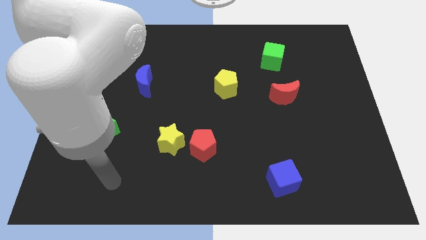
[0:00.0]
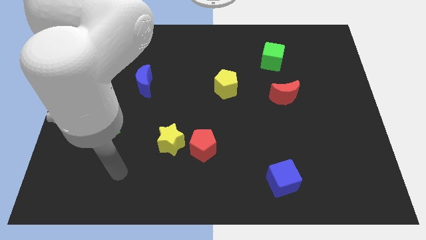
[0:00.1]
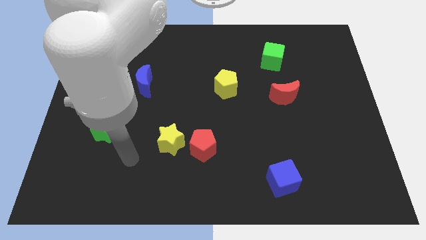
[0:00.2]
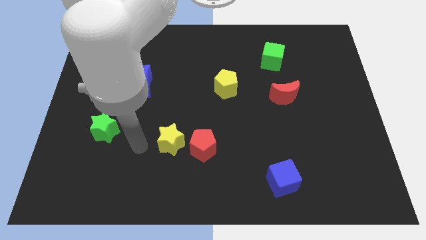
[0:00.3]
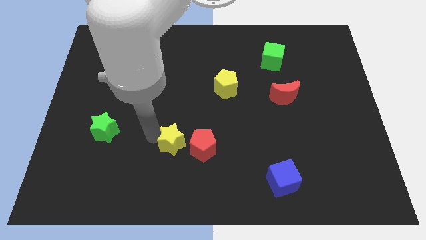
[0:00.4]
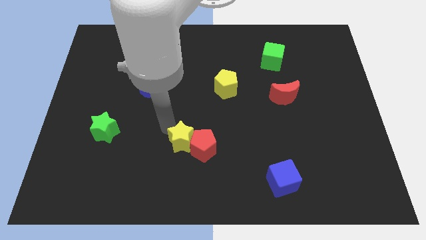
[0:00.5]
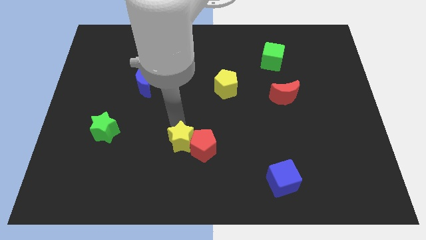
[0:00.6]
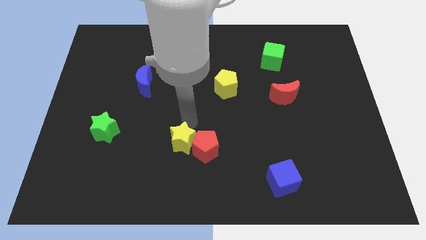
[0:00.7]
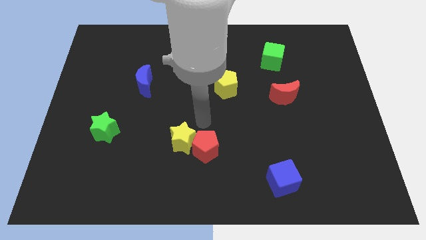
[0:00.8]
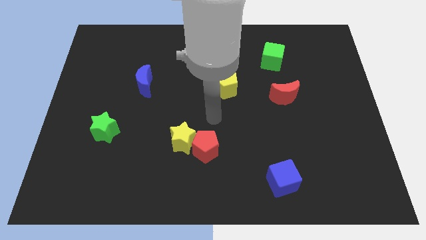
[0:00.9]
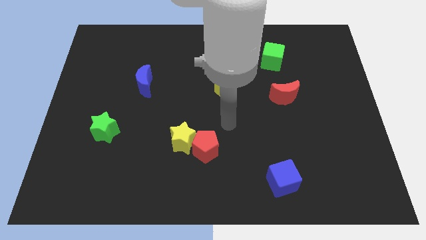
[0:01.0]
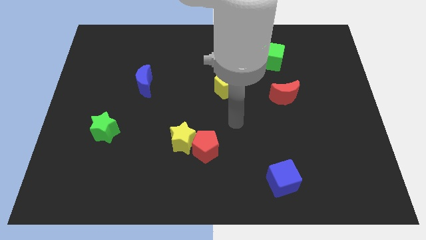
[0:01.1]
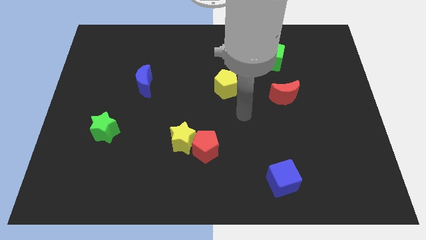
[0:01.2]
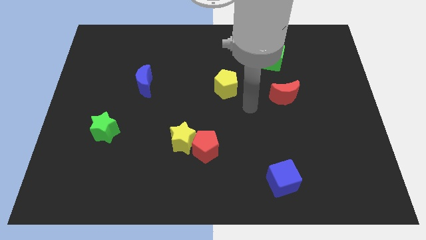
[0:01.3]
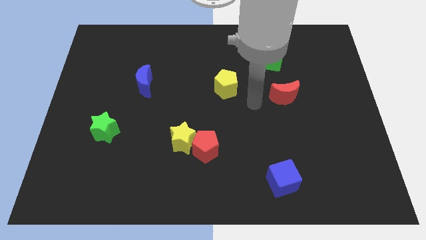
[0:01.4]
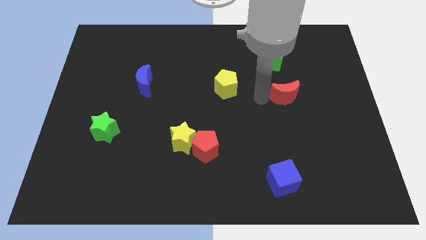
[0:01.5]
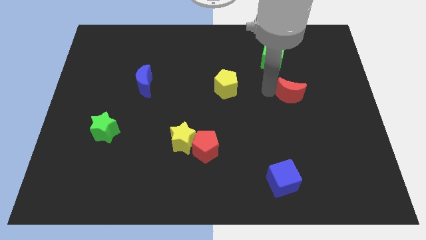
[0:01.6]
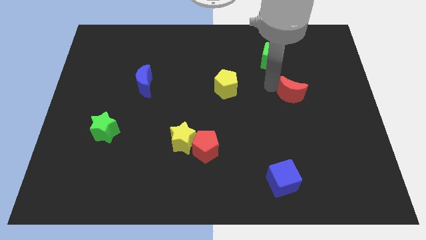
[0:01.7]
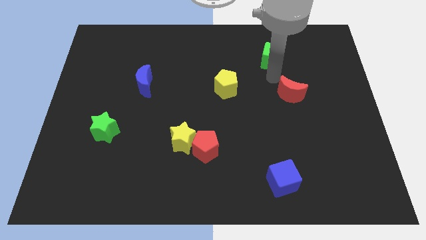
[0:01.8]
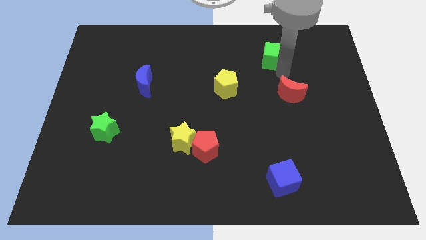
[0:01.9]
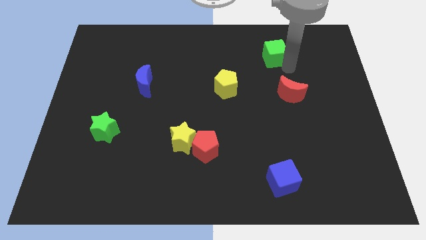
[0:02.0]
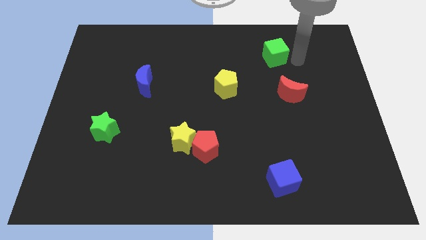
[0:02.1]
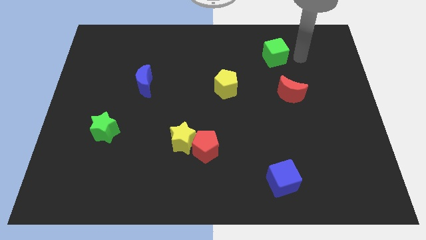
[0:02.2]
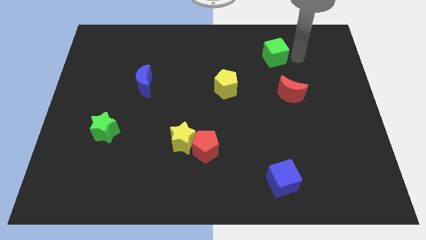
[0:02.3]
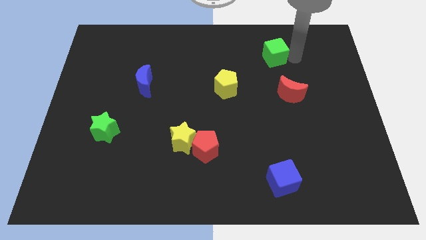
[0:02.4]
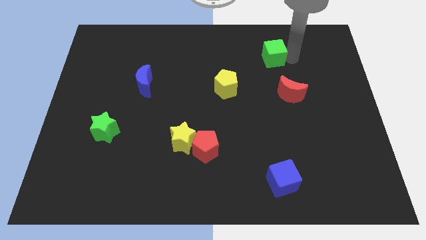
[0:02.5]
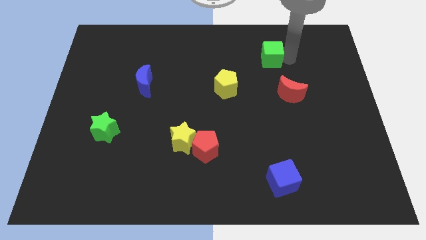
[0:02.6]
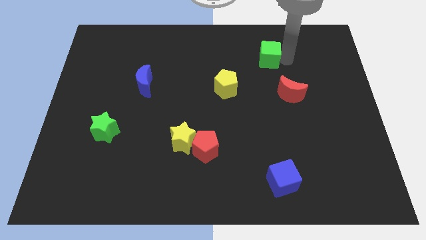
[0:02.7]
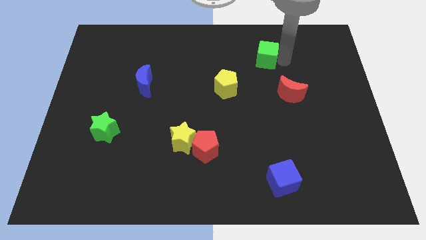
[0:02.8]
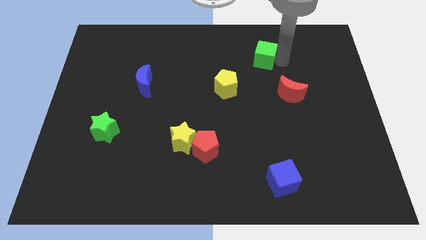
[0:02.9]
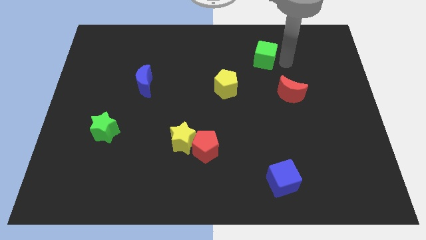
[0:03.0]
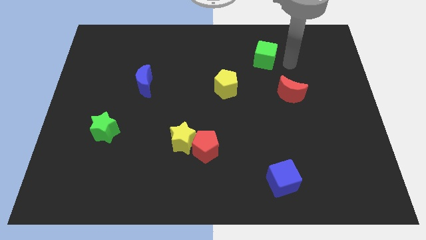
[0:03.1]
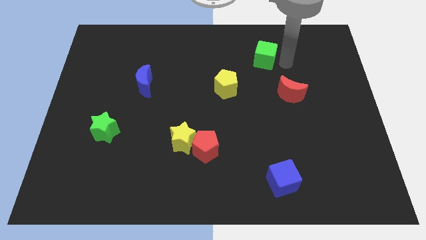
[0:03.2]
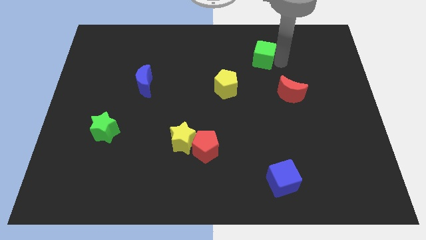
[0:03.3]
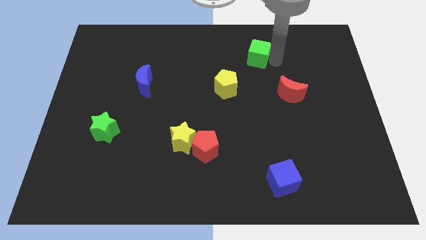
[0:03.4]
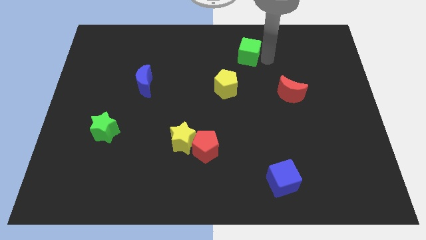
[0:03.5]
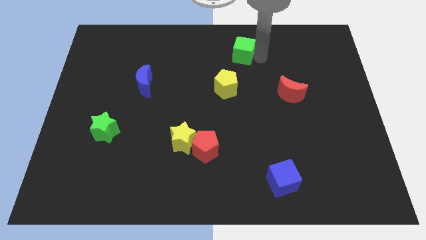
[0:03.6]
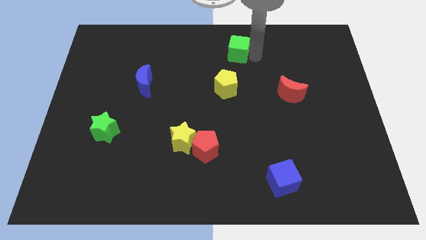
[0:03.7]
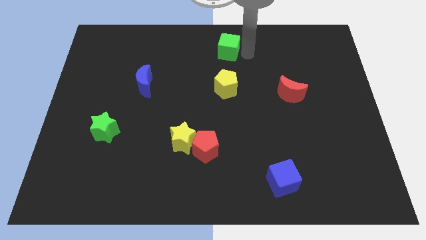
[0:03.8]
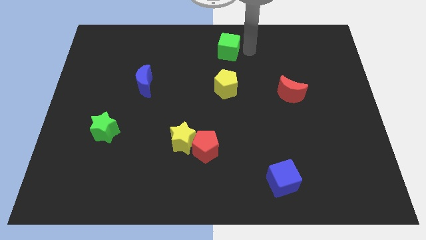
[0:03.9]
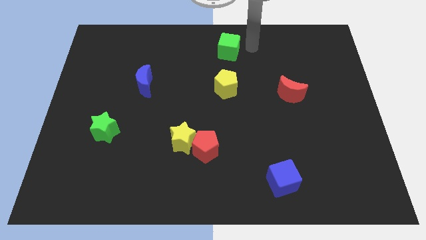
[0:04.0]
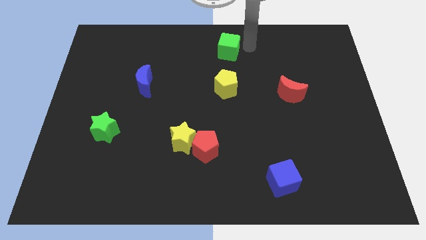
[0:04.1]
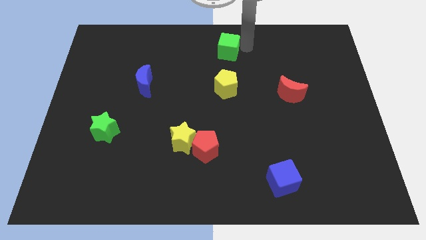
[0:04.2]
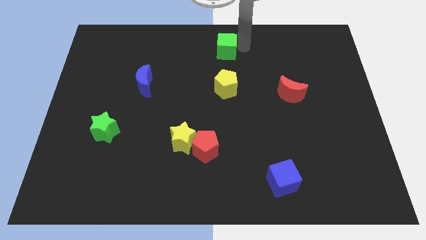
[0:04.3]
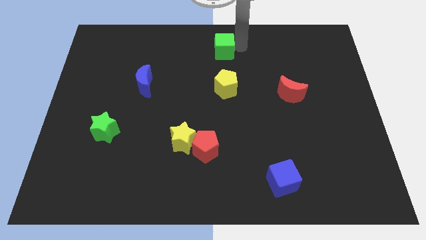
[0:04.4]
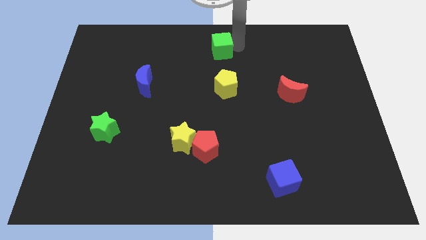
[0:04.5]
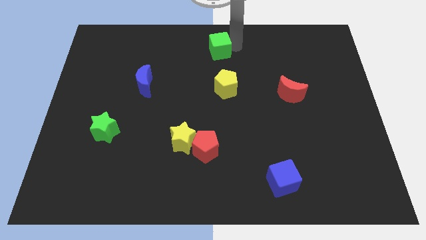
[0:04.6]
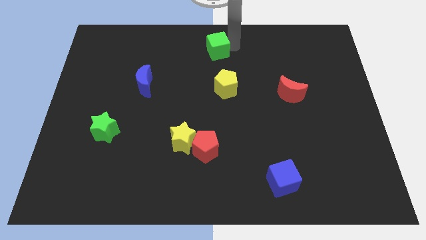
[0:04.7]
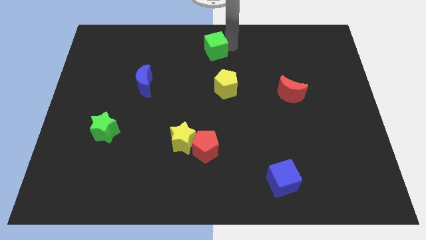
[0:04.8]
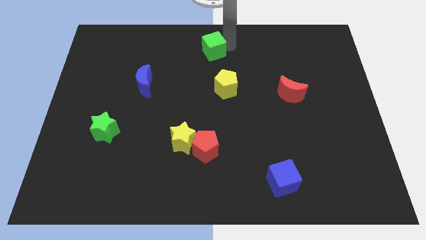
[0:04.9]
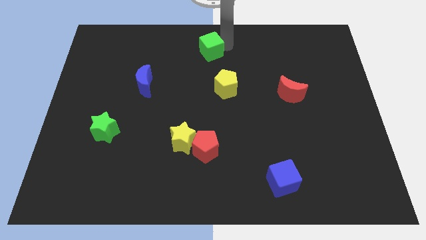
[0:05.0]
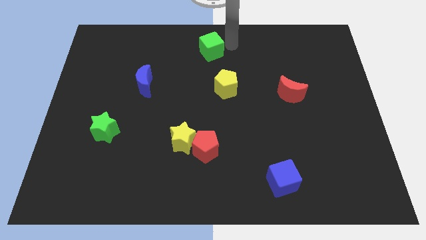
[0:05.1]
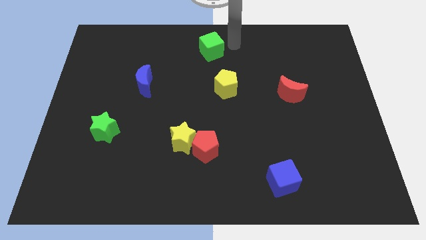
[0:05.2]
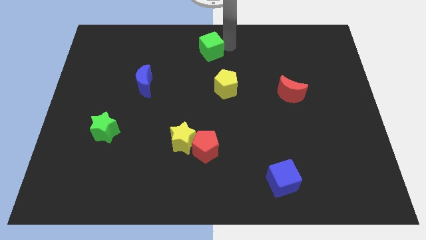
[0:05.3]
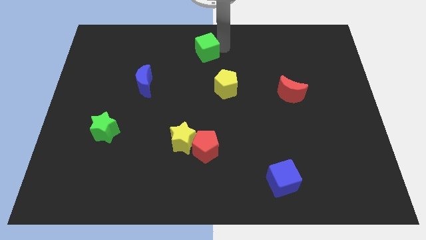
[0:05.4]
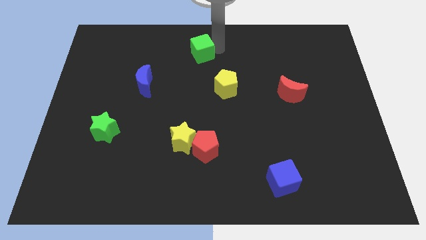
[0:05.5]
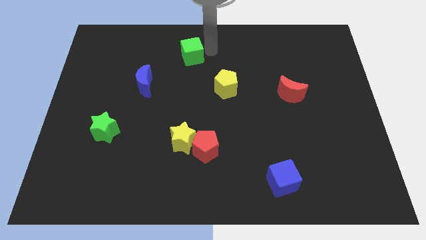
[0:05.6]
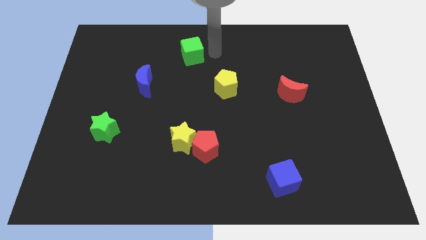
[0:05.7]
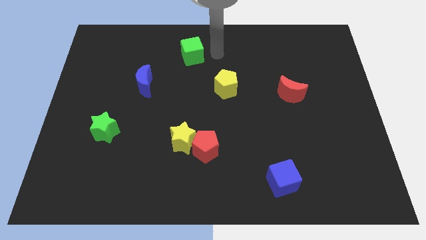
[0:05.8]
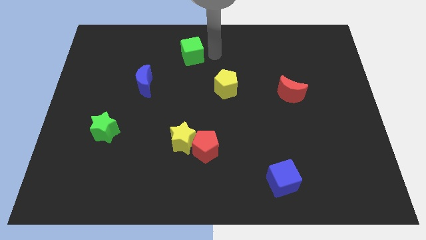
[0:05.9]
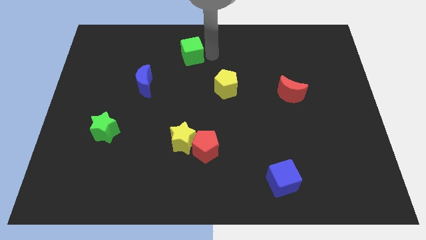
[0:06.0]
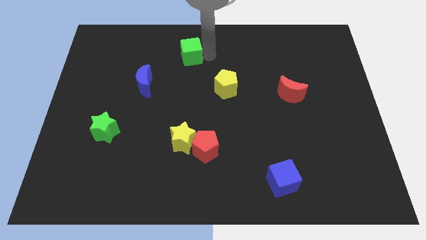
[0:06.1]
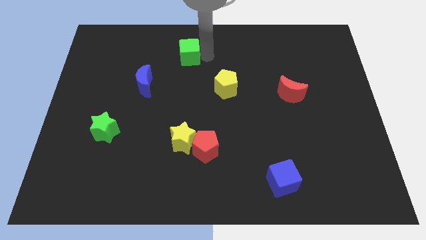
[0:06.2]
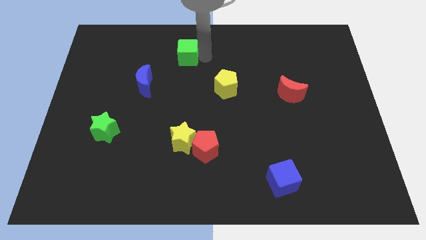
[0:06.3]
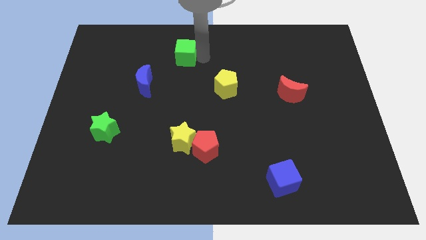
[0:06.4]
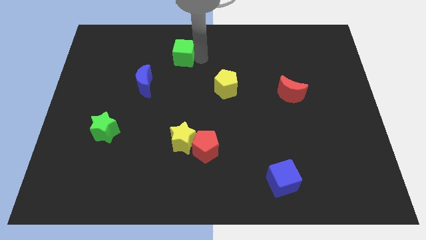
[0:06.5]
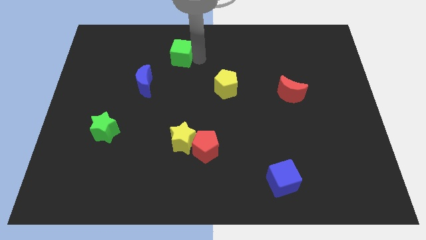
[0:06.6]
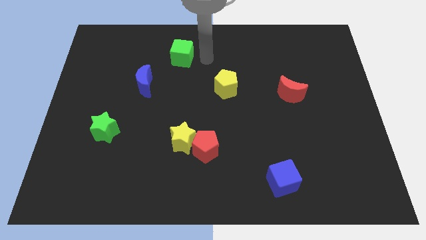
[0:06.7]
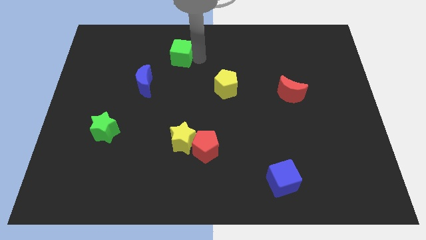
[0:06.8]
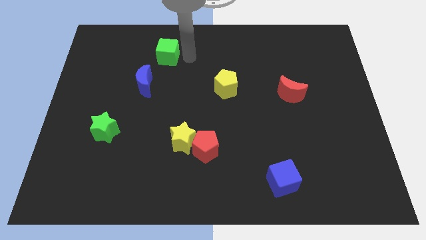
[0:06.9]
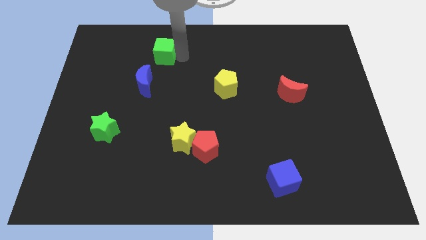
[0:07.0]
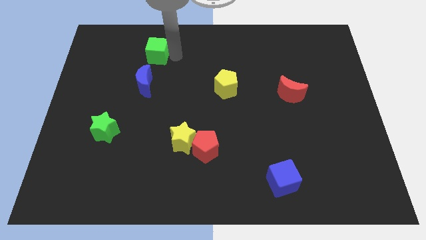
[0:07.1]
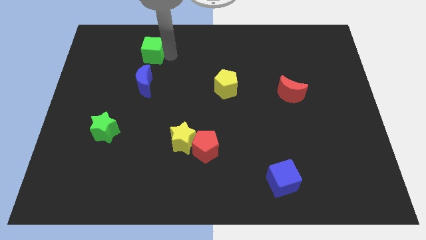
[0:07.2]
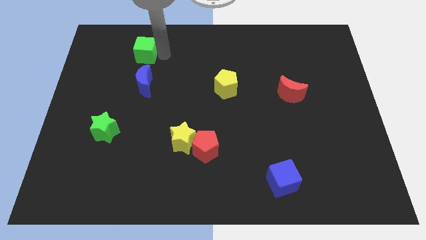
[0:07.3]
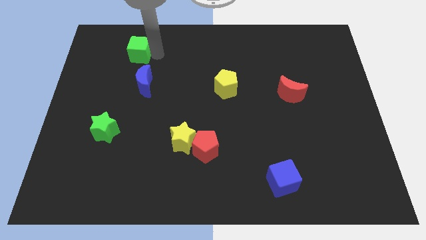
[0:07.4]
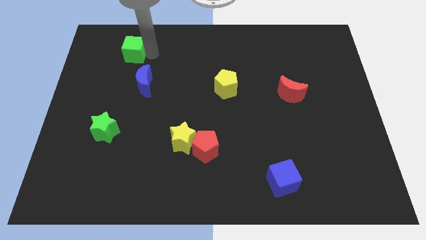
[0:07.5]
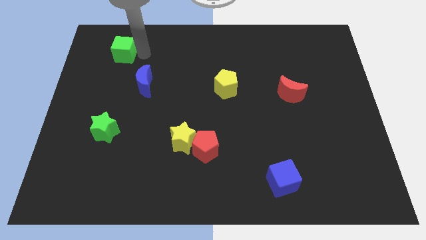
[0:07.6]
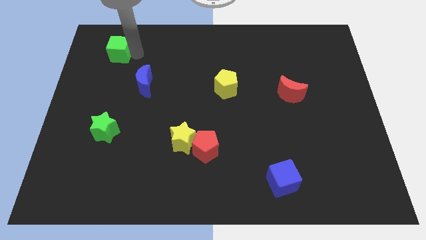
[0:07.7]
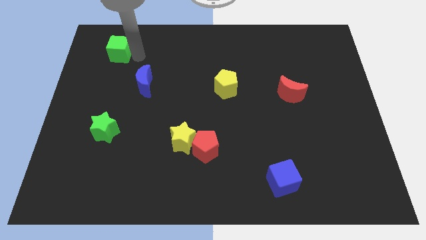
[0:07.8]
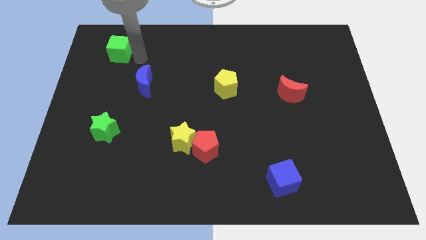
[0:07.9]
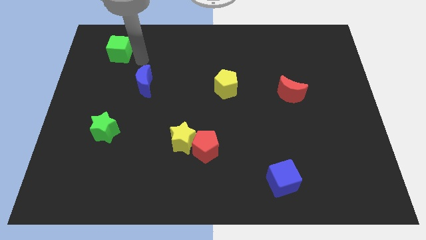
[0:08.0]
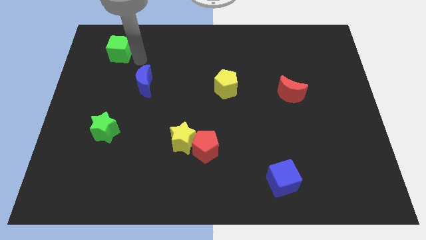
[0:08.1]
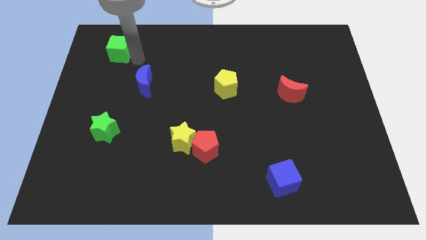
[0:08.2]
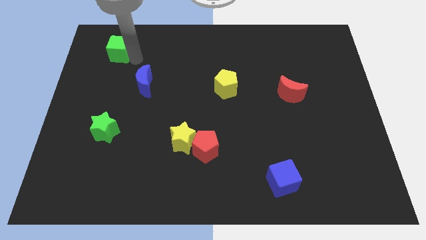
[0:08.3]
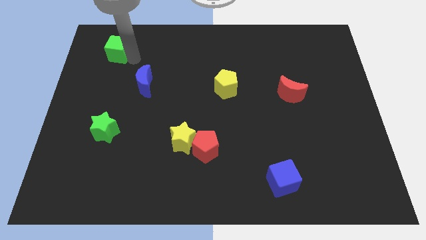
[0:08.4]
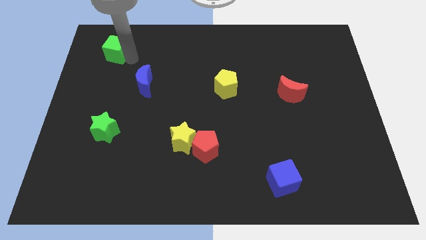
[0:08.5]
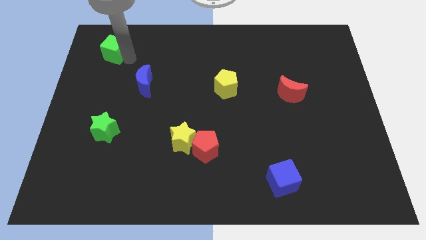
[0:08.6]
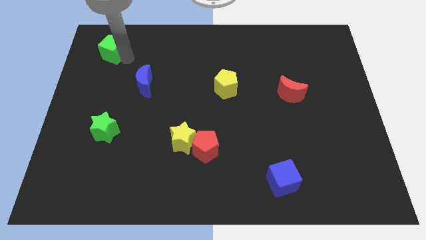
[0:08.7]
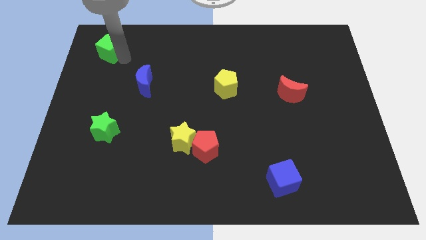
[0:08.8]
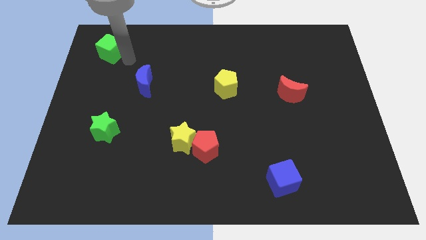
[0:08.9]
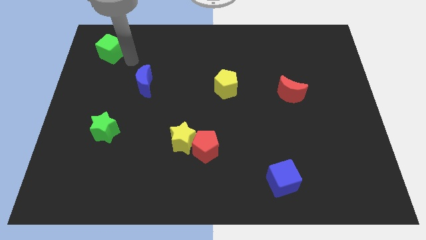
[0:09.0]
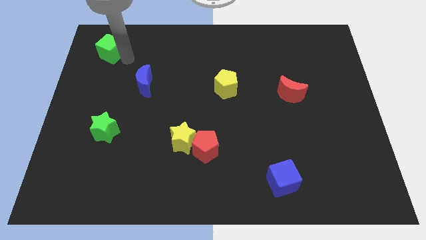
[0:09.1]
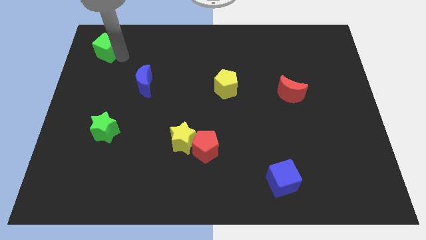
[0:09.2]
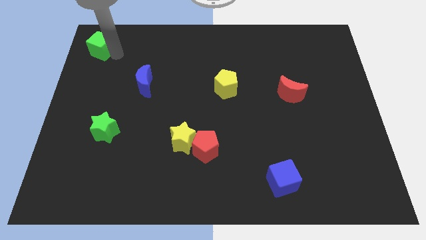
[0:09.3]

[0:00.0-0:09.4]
move the green cube to the top left of the board
